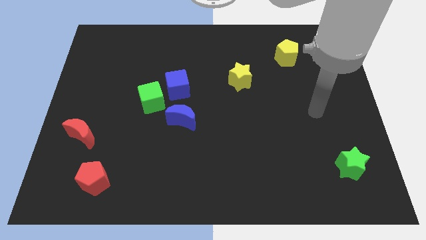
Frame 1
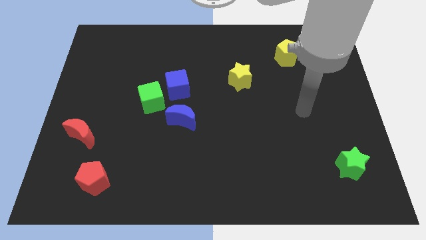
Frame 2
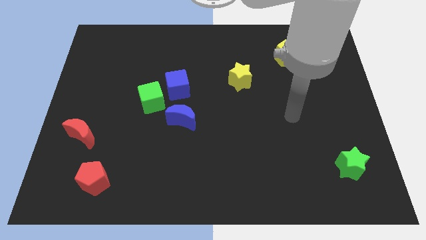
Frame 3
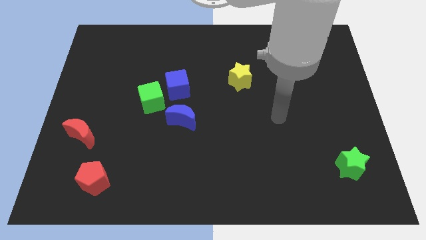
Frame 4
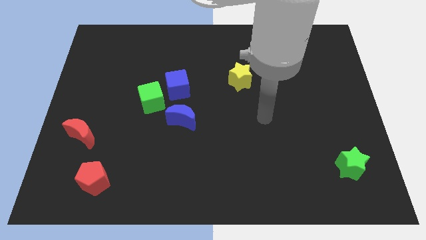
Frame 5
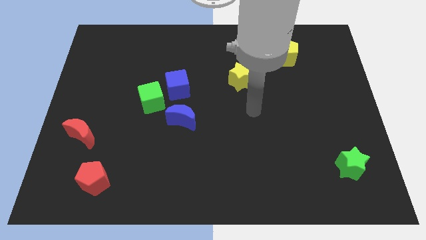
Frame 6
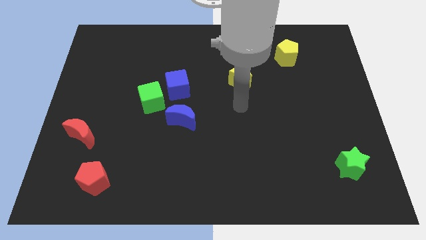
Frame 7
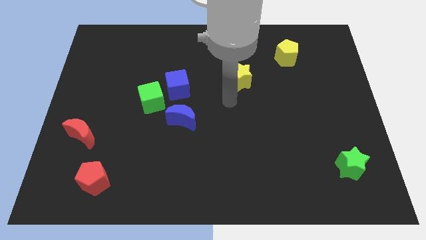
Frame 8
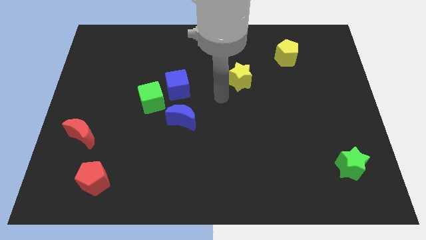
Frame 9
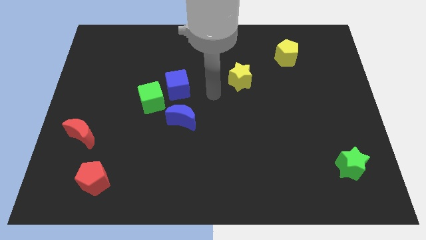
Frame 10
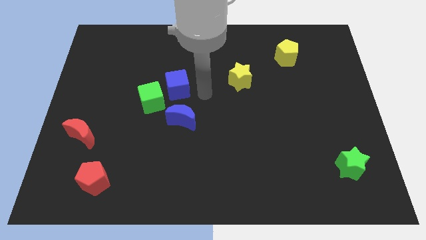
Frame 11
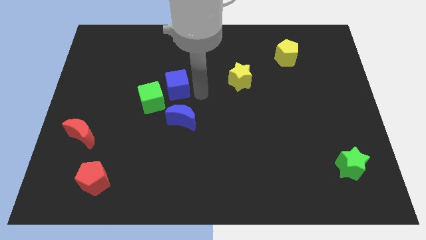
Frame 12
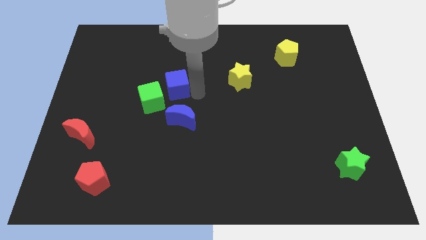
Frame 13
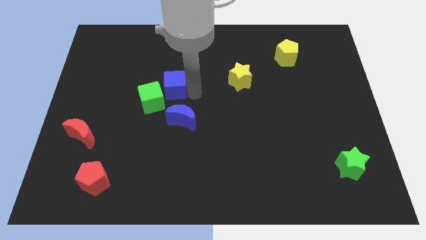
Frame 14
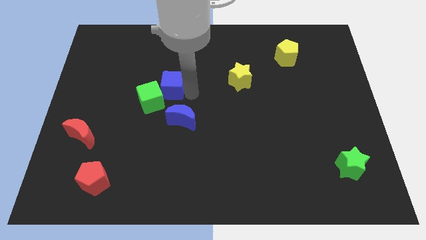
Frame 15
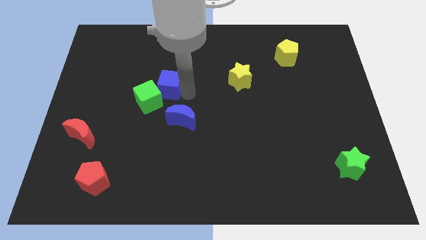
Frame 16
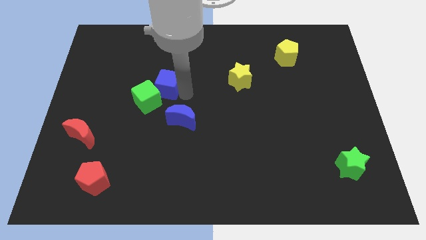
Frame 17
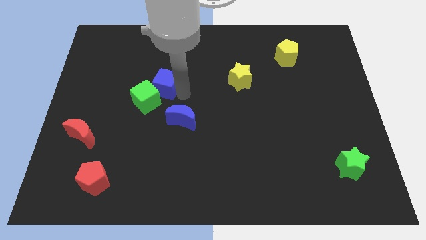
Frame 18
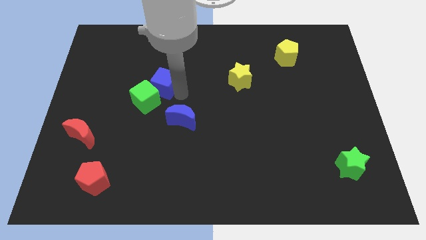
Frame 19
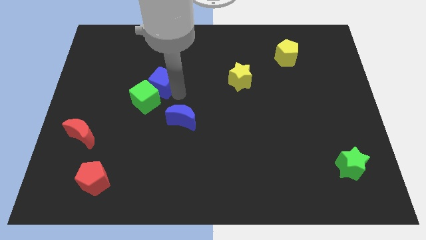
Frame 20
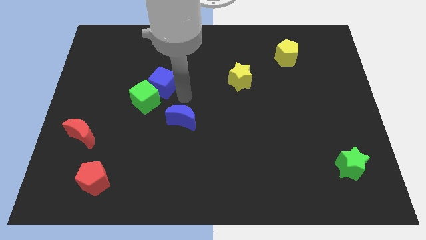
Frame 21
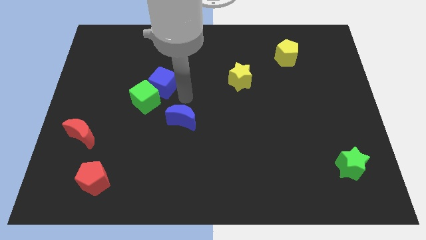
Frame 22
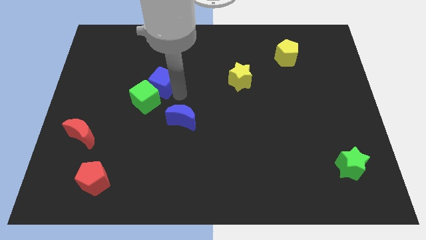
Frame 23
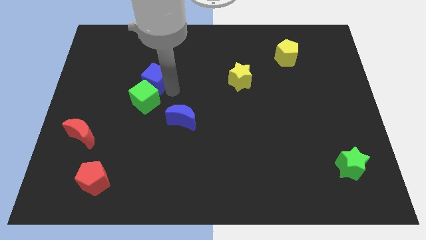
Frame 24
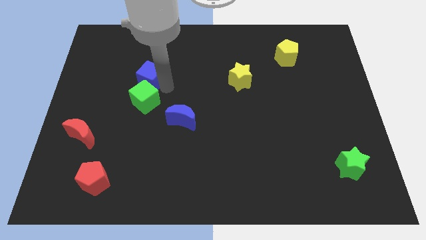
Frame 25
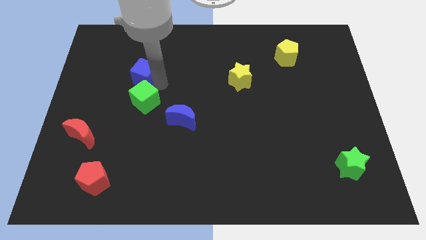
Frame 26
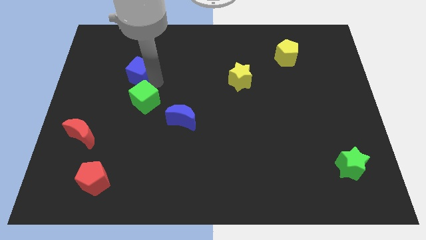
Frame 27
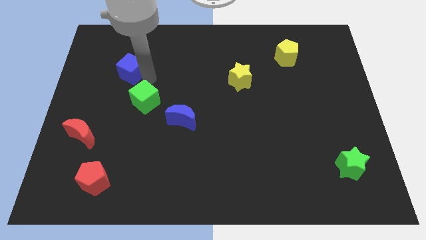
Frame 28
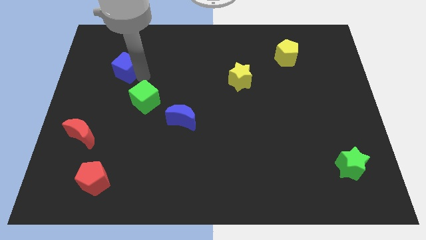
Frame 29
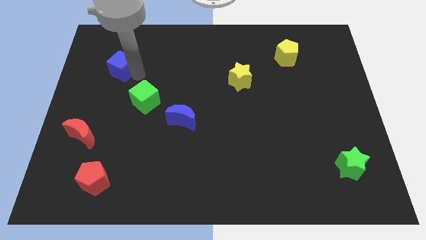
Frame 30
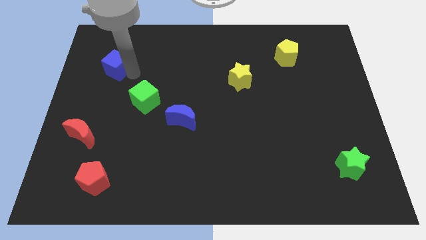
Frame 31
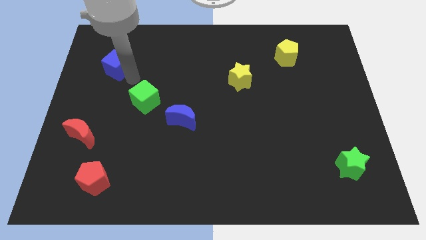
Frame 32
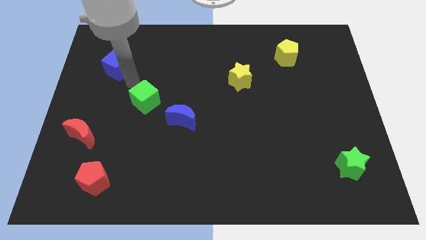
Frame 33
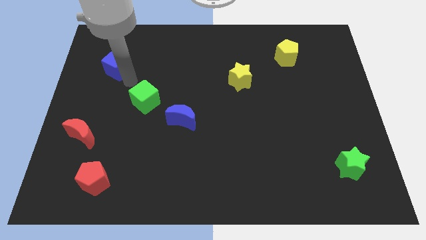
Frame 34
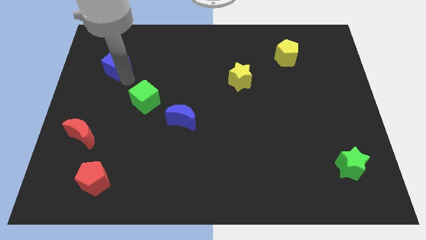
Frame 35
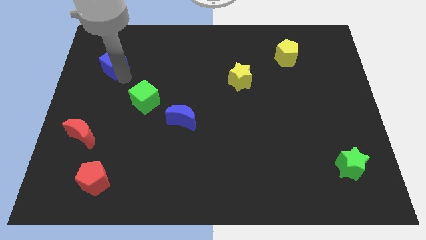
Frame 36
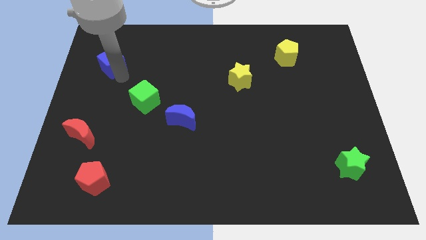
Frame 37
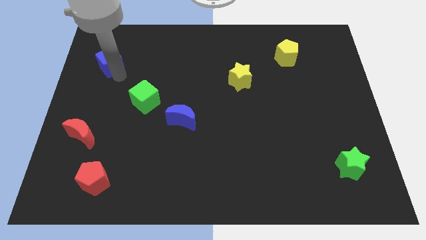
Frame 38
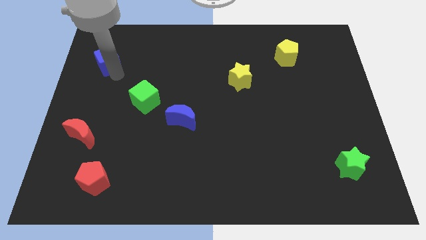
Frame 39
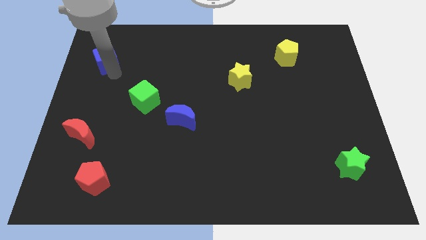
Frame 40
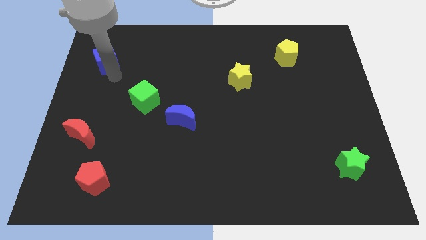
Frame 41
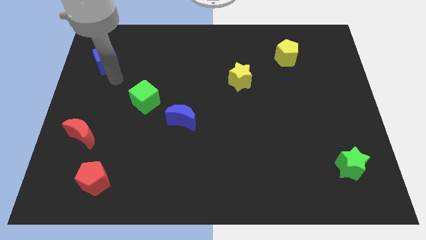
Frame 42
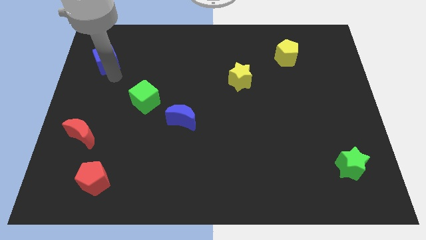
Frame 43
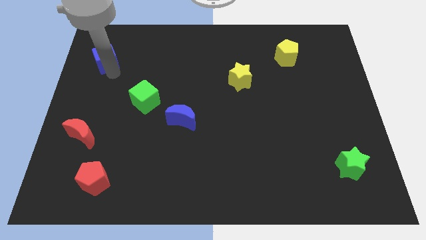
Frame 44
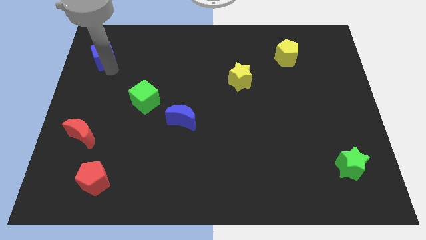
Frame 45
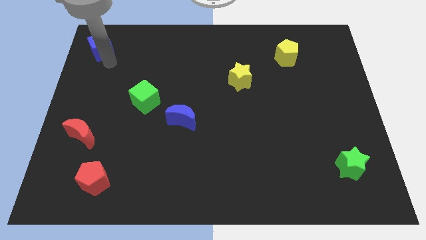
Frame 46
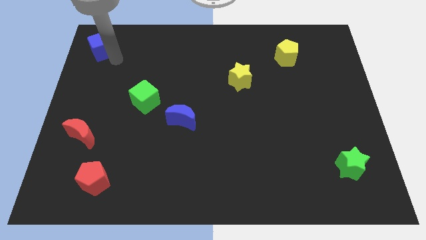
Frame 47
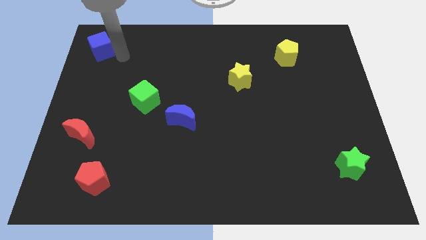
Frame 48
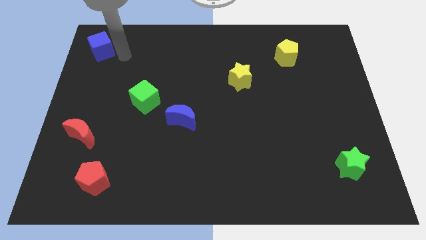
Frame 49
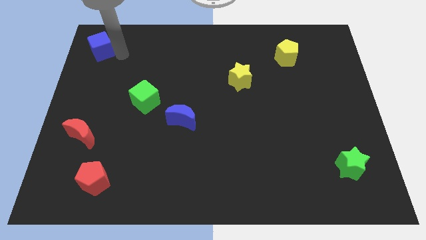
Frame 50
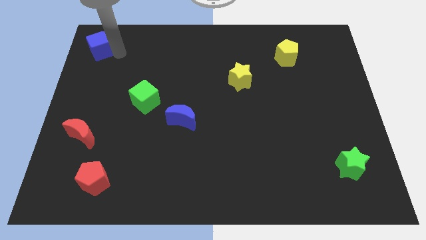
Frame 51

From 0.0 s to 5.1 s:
push the blue cube to the upper left corner

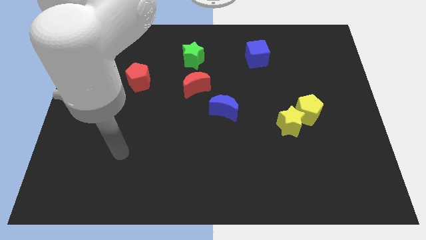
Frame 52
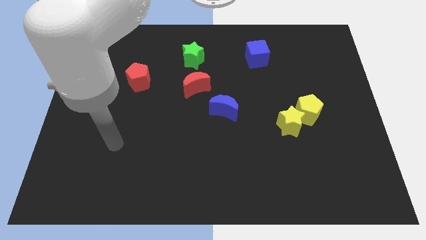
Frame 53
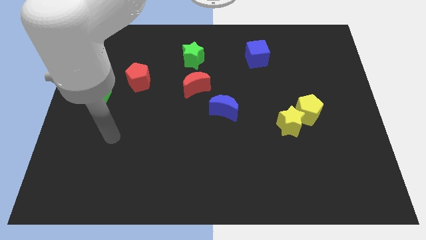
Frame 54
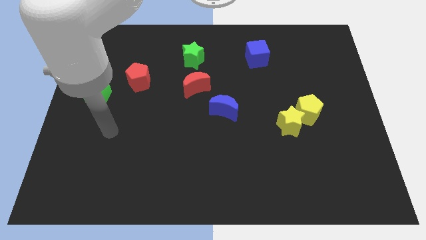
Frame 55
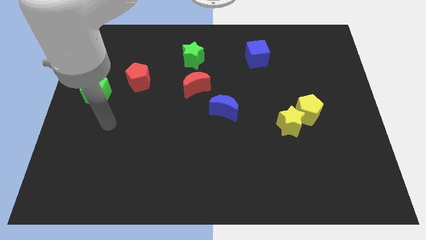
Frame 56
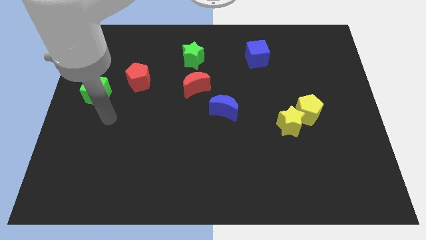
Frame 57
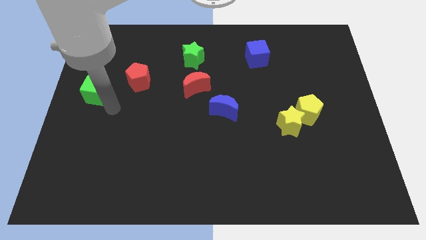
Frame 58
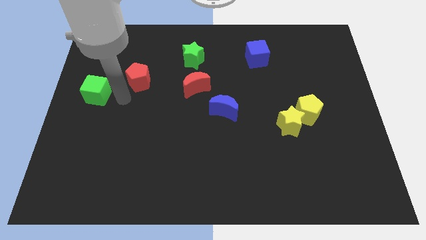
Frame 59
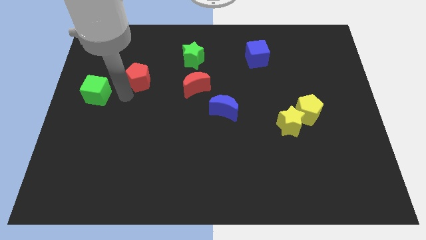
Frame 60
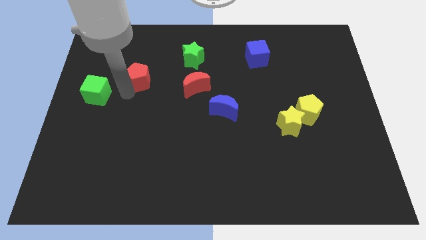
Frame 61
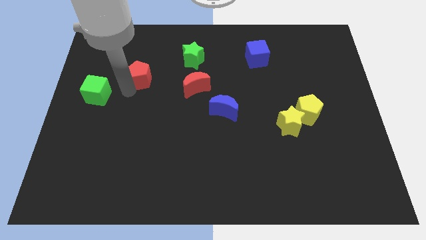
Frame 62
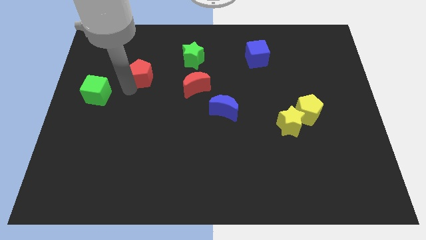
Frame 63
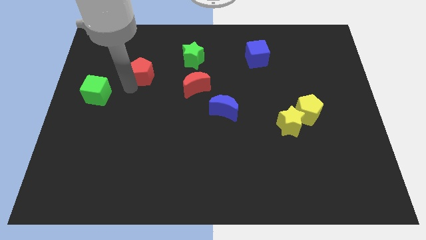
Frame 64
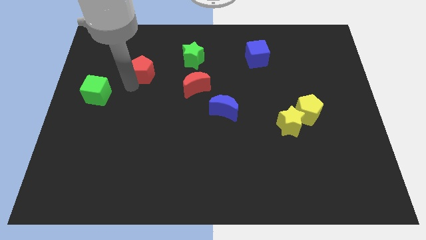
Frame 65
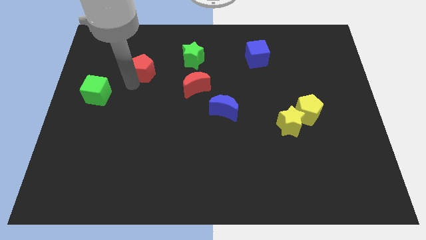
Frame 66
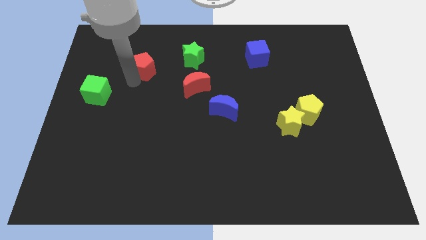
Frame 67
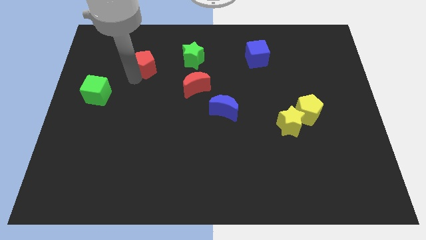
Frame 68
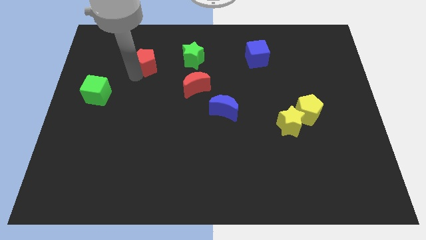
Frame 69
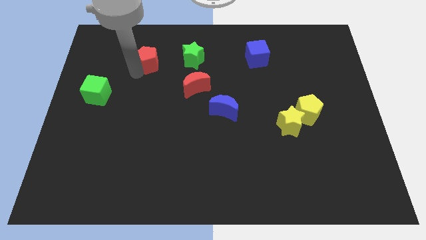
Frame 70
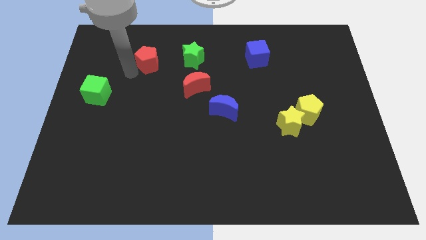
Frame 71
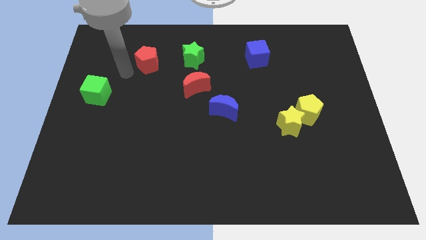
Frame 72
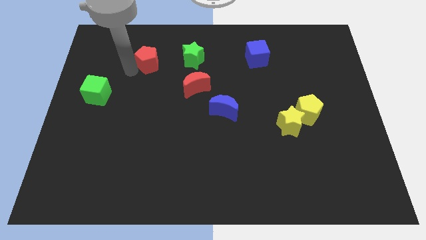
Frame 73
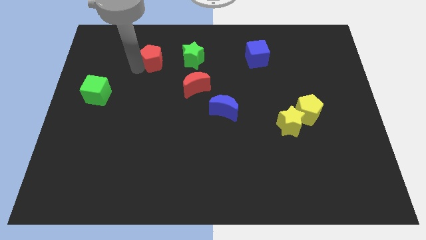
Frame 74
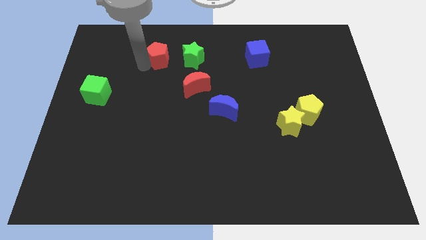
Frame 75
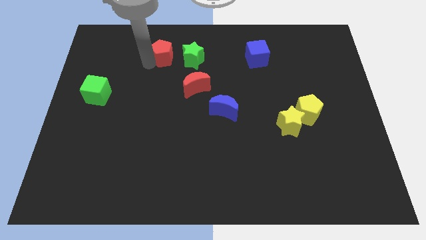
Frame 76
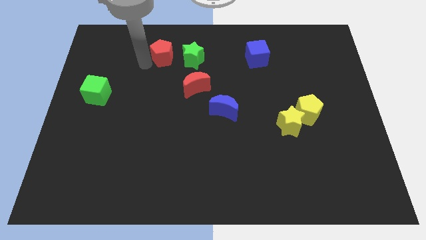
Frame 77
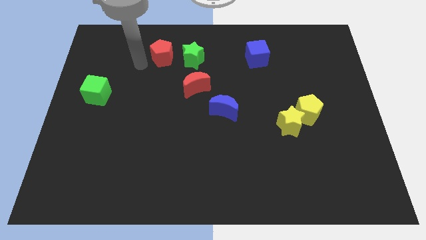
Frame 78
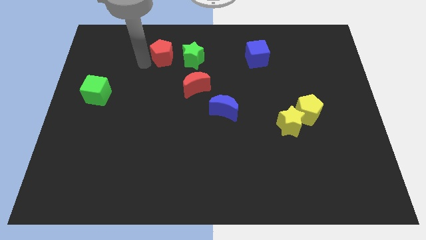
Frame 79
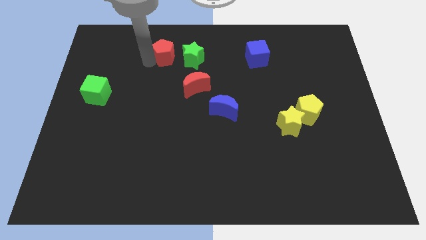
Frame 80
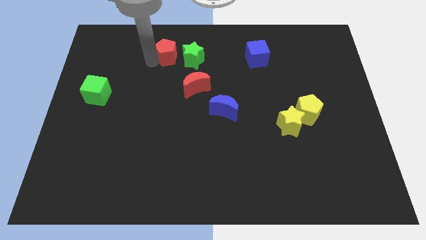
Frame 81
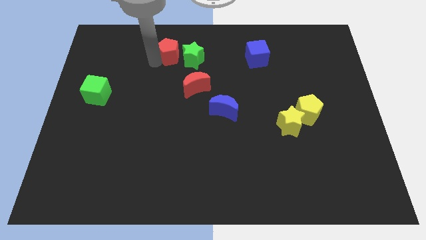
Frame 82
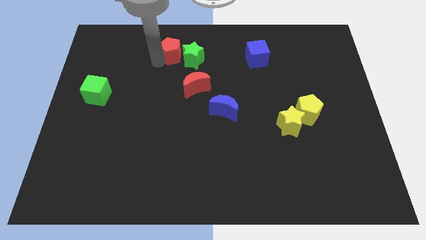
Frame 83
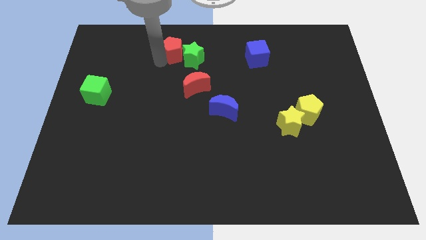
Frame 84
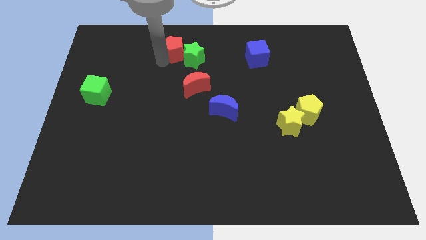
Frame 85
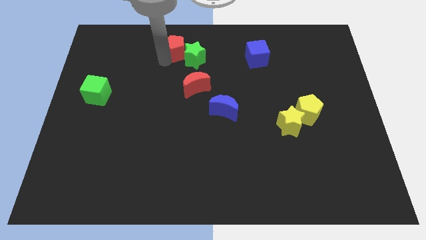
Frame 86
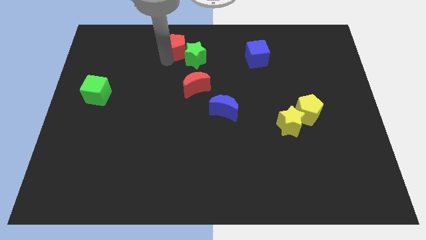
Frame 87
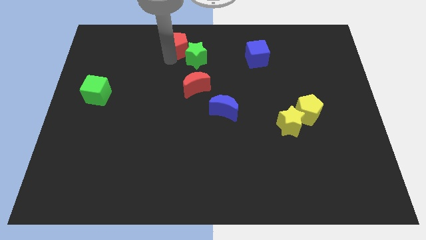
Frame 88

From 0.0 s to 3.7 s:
push the red pentagon to the towards your base
